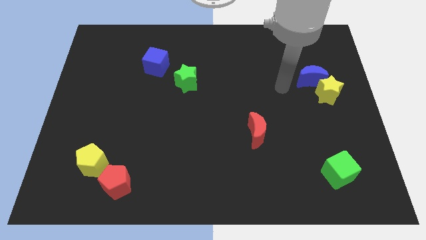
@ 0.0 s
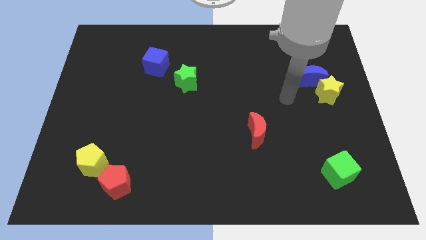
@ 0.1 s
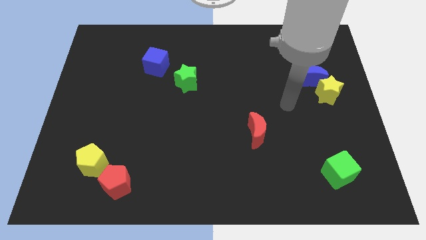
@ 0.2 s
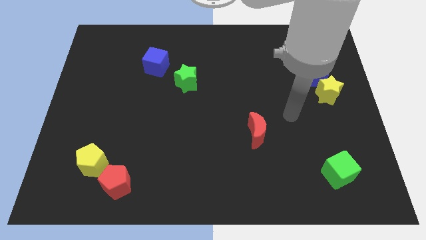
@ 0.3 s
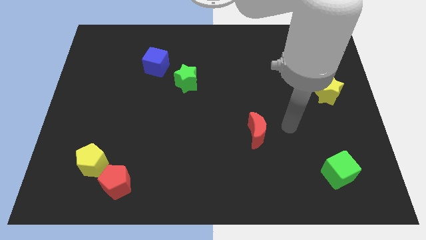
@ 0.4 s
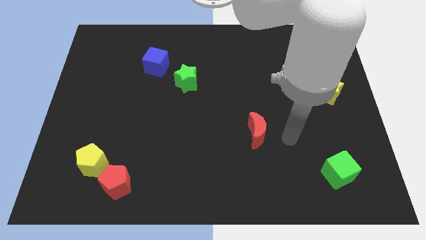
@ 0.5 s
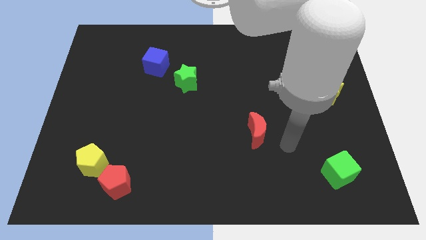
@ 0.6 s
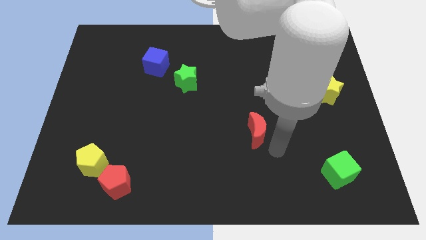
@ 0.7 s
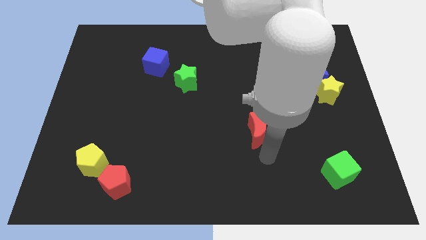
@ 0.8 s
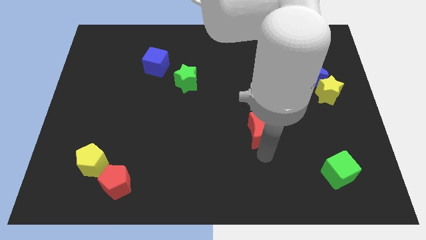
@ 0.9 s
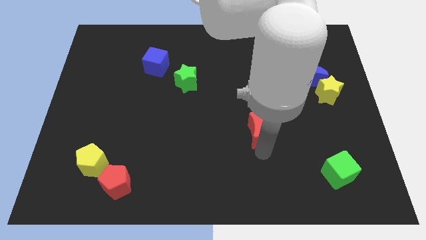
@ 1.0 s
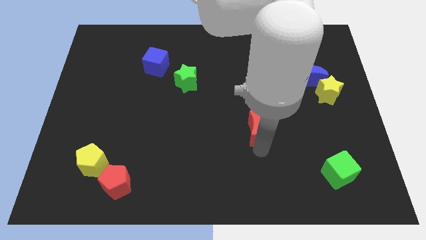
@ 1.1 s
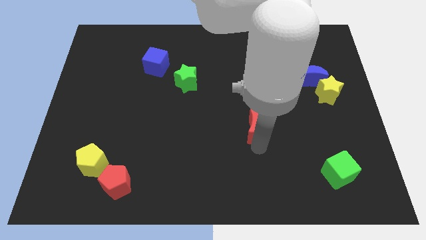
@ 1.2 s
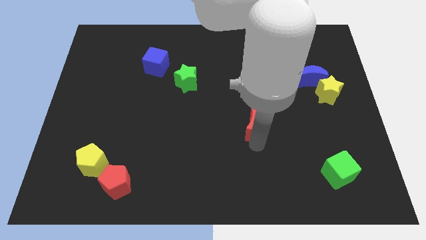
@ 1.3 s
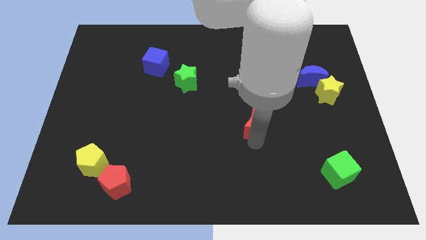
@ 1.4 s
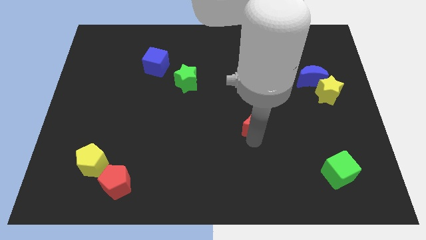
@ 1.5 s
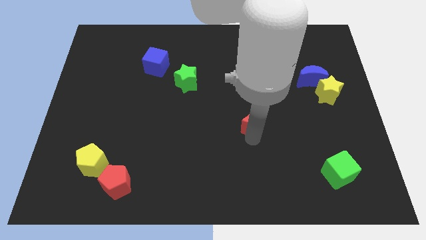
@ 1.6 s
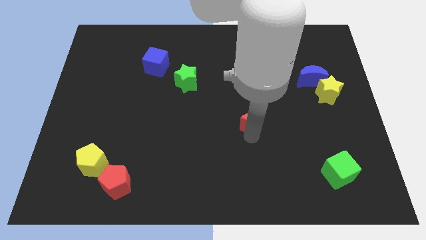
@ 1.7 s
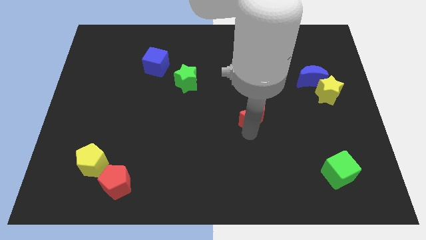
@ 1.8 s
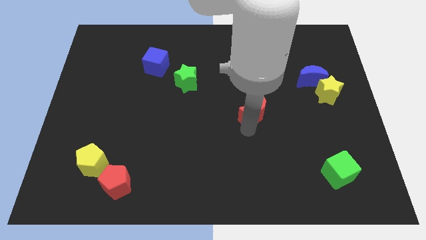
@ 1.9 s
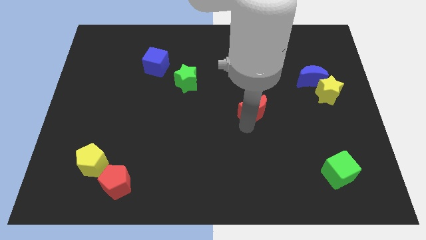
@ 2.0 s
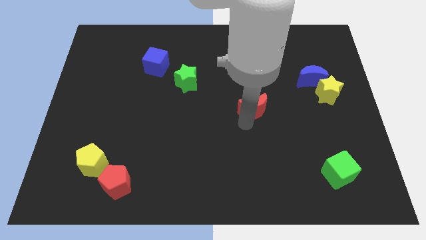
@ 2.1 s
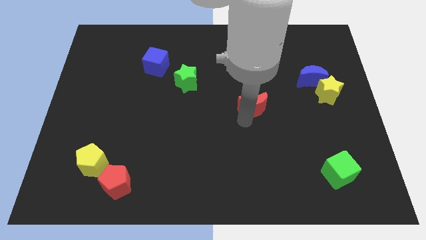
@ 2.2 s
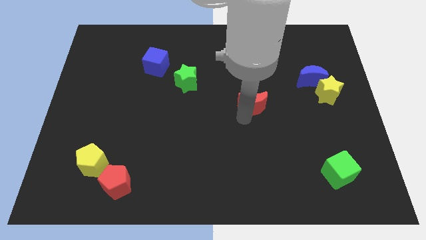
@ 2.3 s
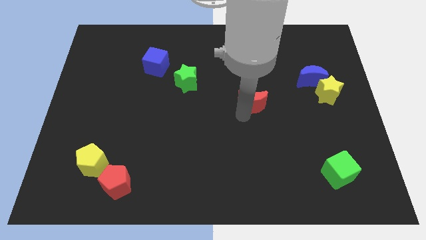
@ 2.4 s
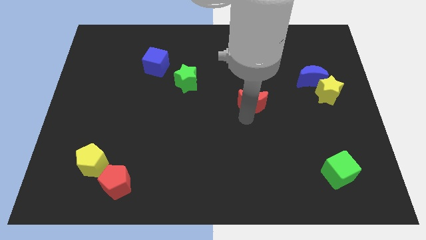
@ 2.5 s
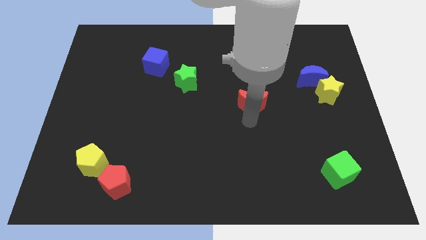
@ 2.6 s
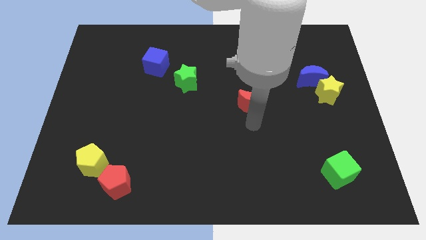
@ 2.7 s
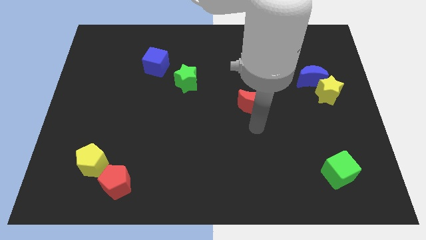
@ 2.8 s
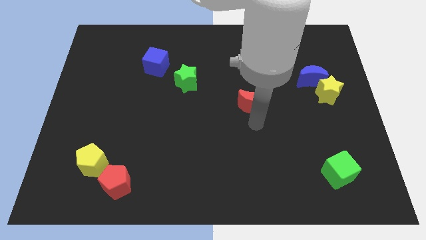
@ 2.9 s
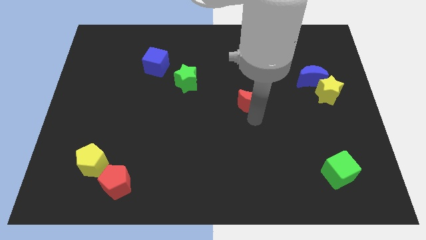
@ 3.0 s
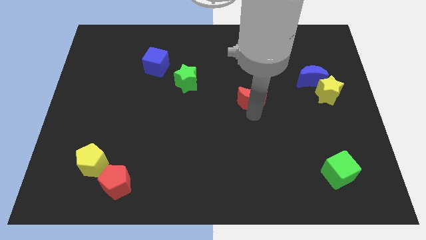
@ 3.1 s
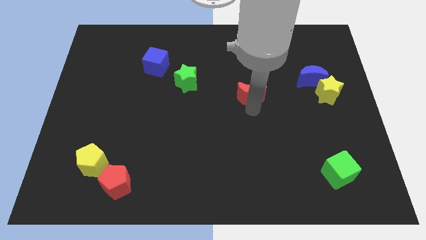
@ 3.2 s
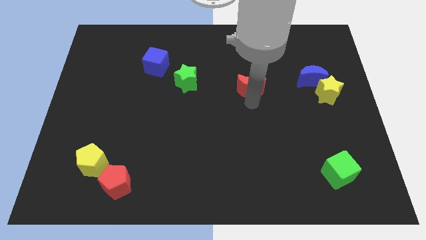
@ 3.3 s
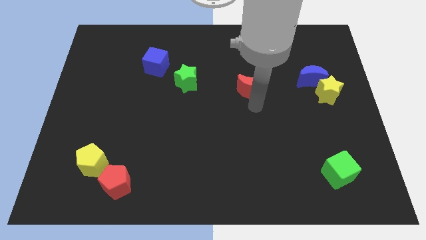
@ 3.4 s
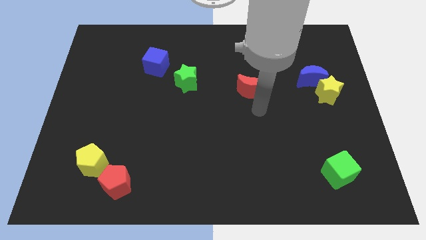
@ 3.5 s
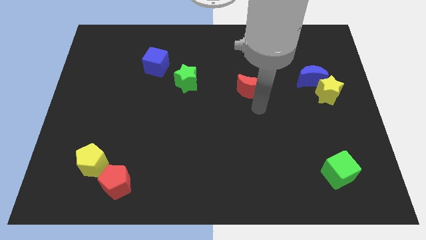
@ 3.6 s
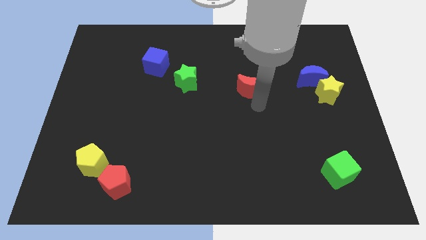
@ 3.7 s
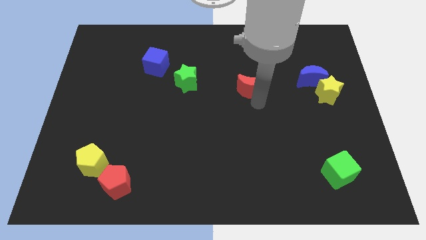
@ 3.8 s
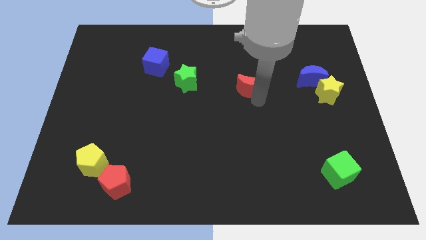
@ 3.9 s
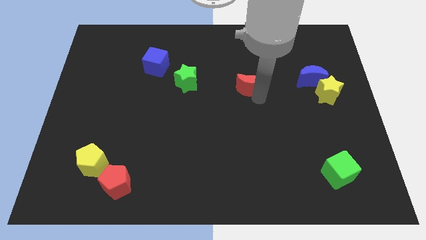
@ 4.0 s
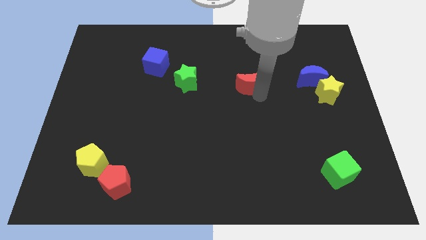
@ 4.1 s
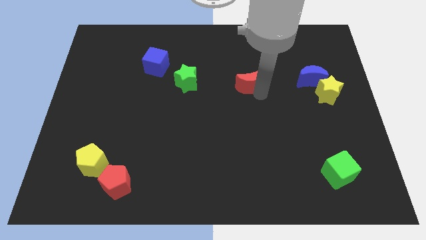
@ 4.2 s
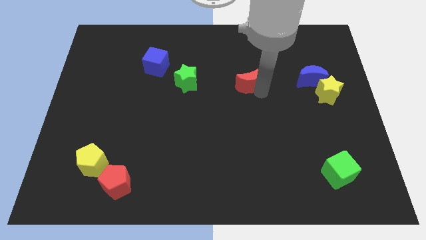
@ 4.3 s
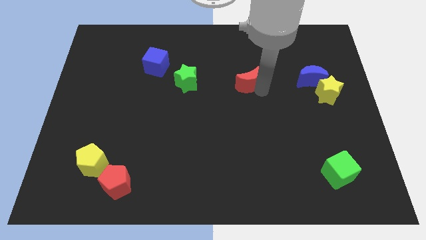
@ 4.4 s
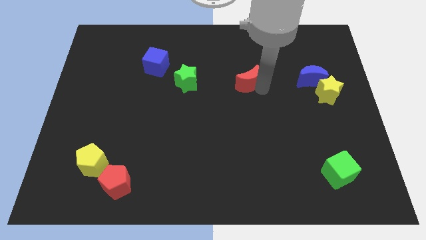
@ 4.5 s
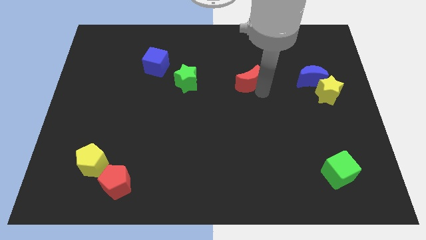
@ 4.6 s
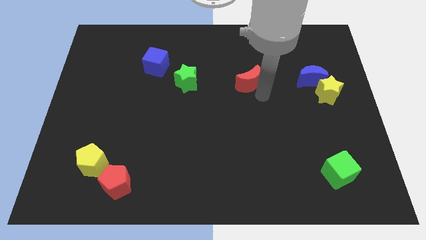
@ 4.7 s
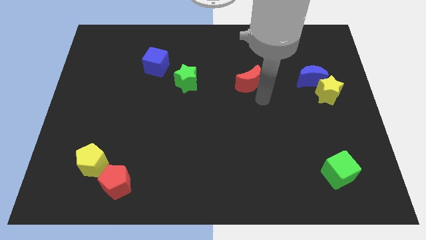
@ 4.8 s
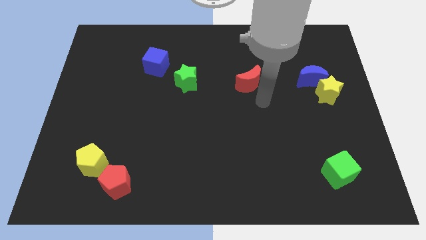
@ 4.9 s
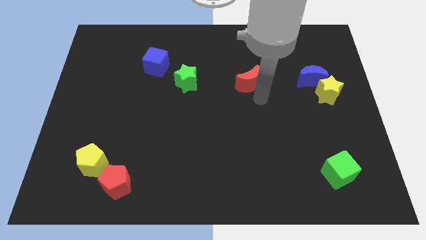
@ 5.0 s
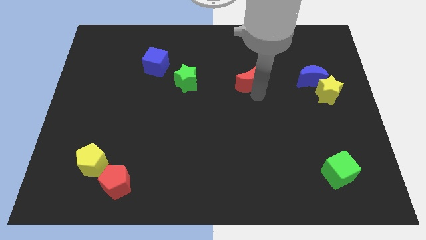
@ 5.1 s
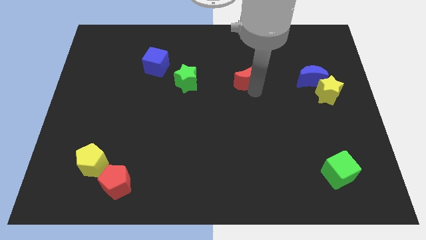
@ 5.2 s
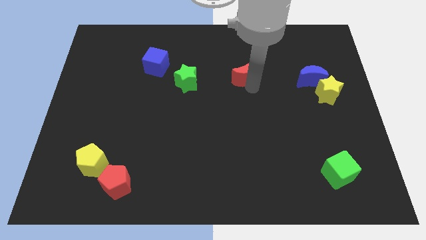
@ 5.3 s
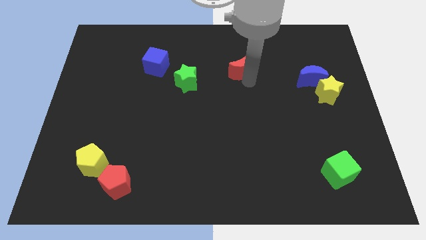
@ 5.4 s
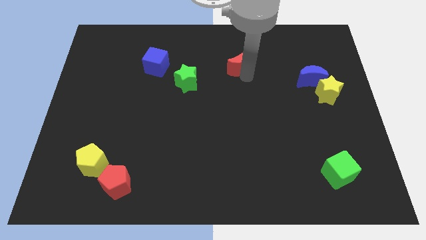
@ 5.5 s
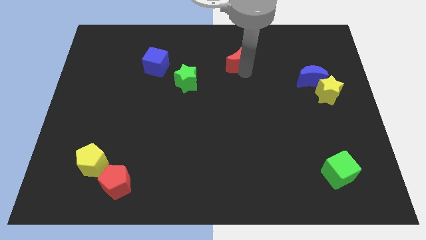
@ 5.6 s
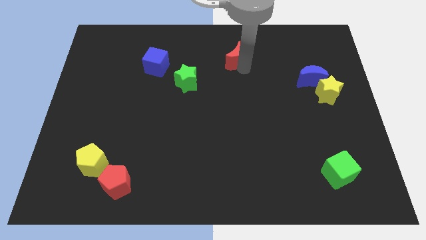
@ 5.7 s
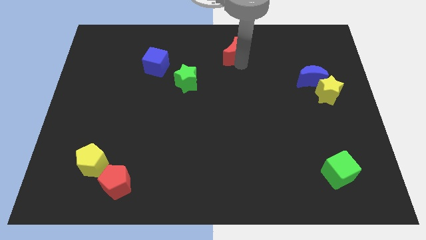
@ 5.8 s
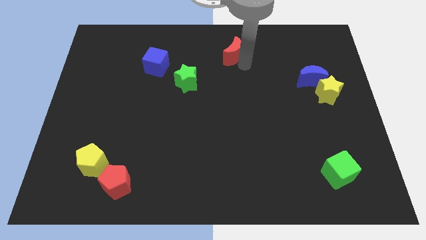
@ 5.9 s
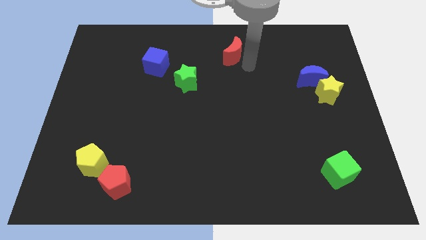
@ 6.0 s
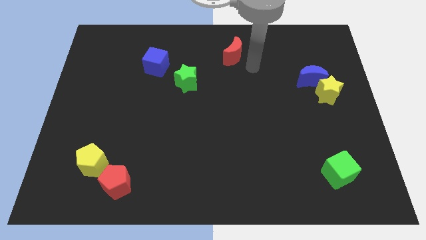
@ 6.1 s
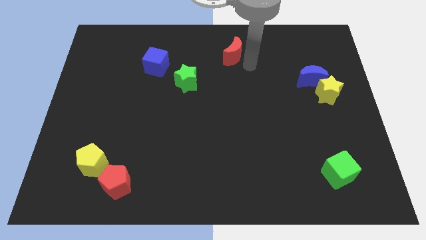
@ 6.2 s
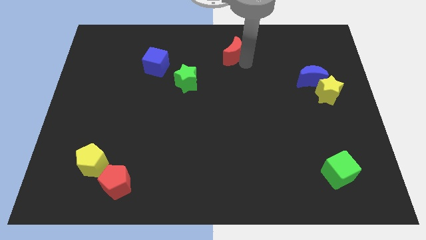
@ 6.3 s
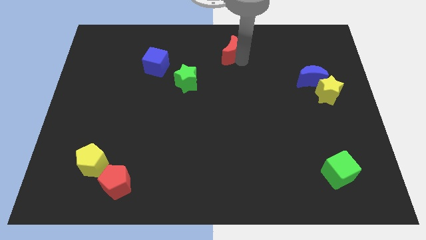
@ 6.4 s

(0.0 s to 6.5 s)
put the red moon to the top

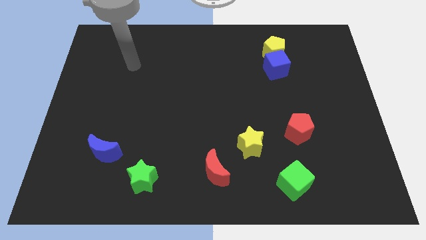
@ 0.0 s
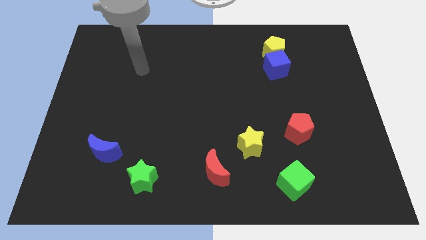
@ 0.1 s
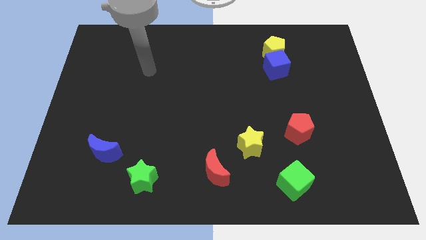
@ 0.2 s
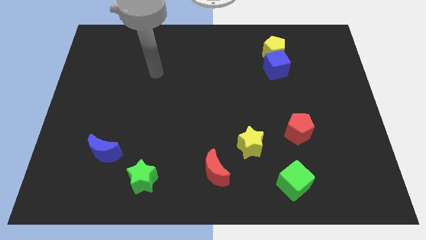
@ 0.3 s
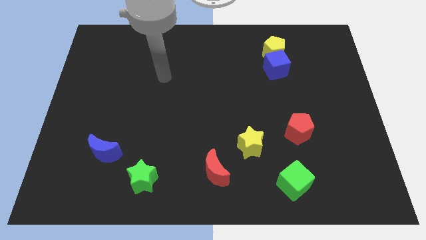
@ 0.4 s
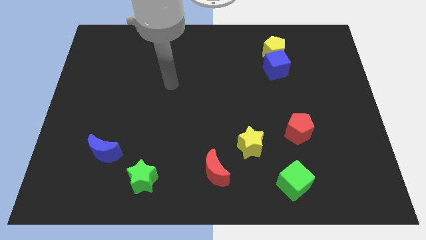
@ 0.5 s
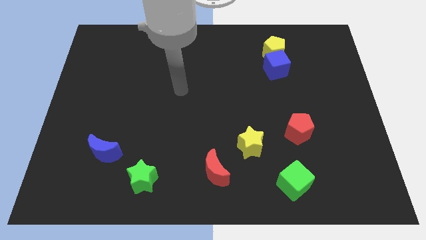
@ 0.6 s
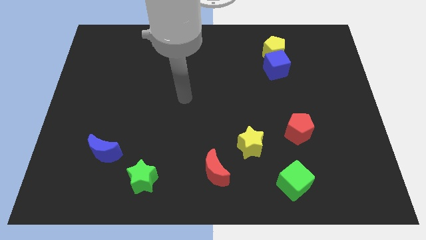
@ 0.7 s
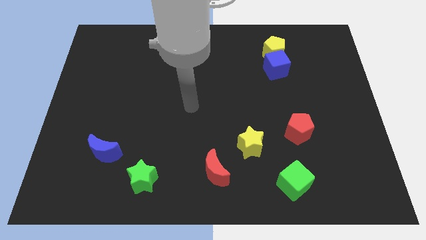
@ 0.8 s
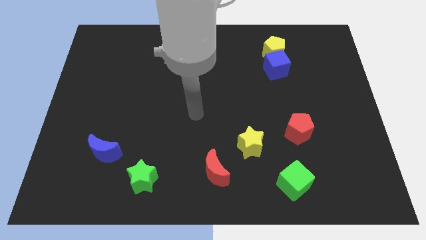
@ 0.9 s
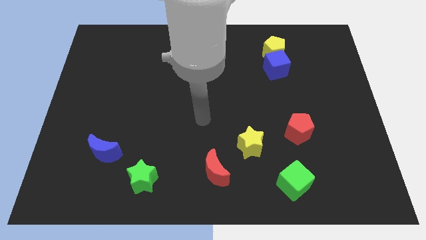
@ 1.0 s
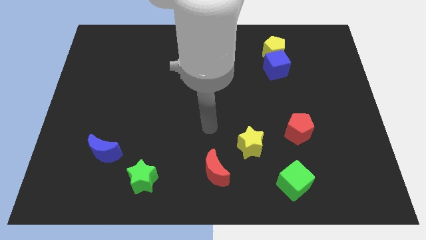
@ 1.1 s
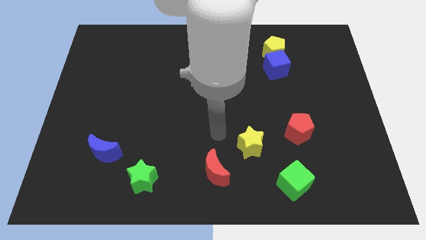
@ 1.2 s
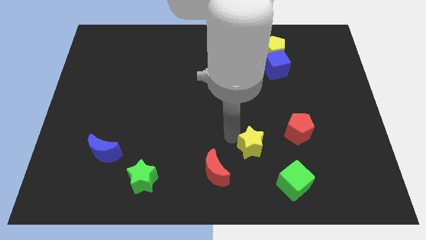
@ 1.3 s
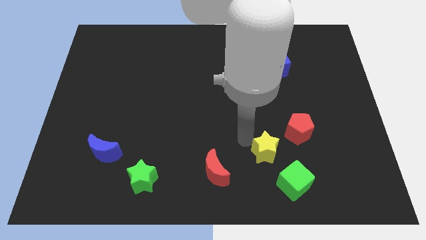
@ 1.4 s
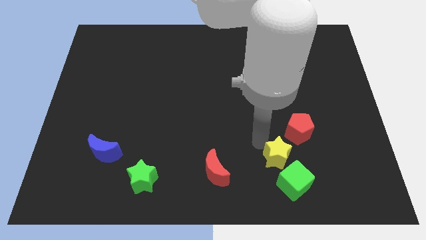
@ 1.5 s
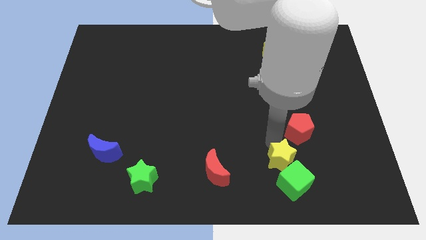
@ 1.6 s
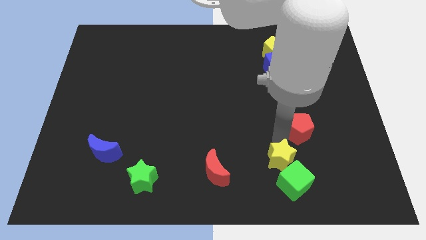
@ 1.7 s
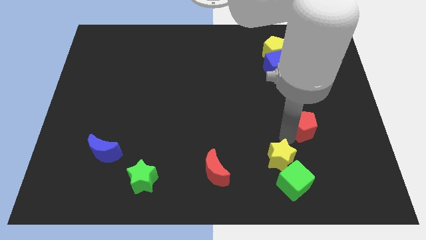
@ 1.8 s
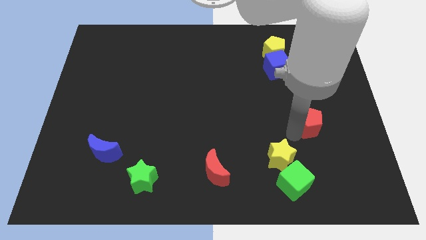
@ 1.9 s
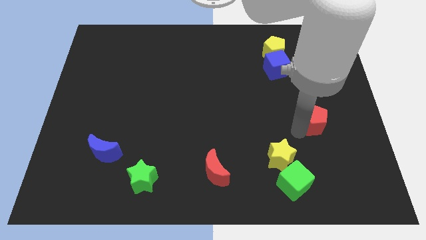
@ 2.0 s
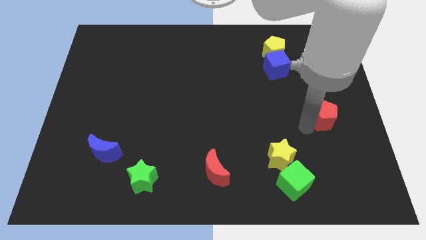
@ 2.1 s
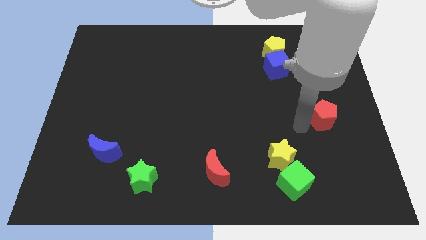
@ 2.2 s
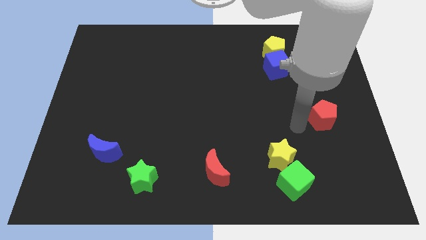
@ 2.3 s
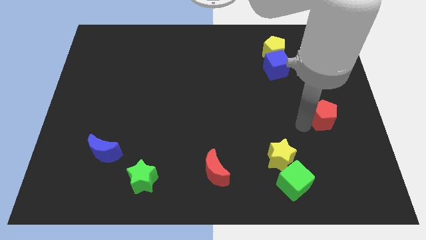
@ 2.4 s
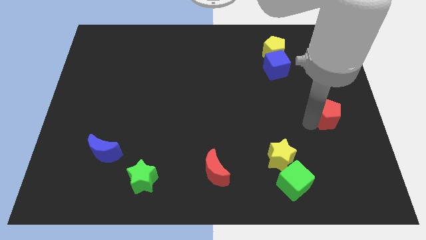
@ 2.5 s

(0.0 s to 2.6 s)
move the red pentagon to the right side of the board
